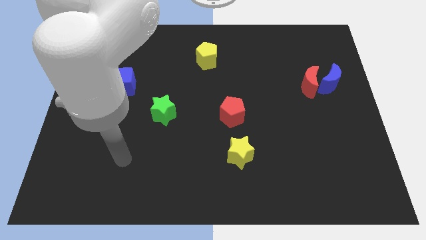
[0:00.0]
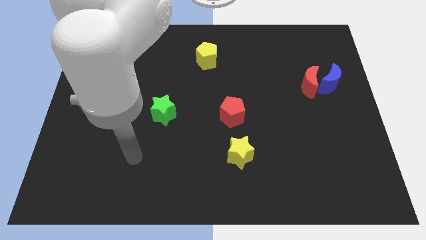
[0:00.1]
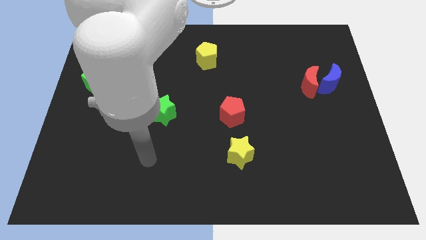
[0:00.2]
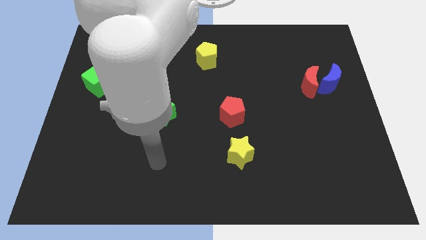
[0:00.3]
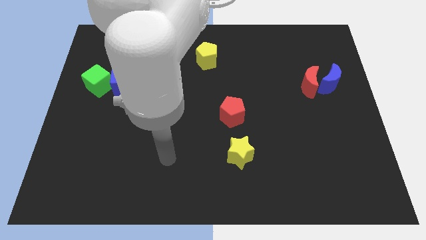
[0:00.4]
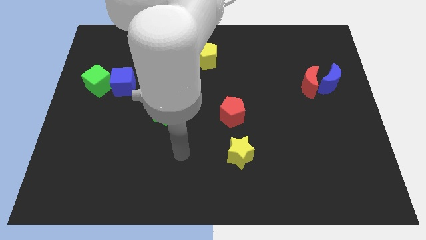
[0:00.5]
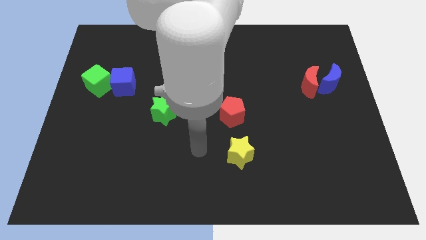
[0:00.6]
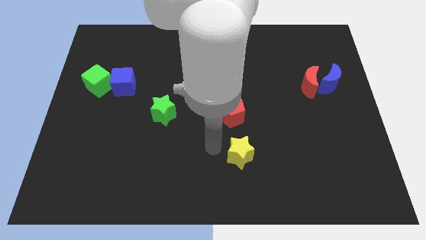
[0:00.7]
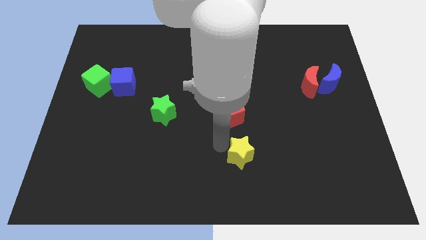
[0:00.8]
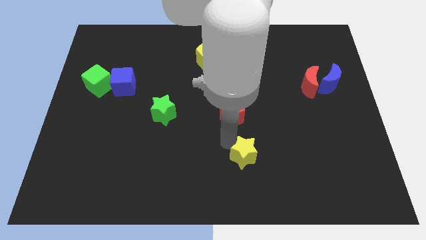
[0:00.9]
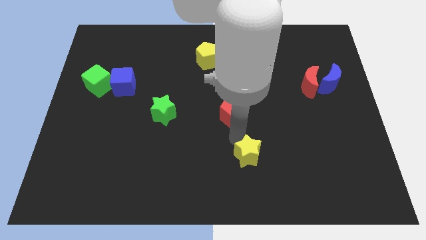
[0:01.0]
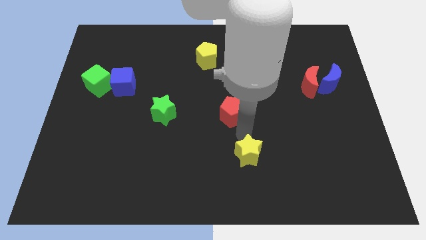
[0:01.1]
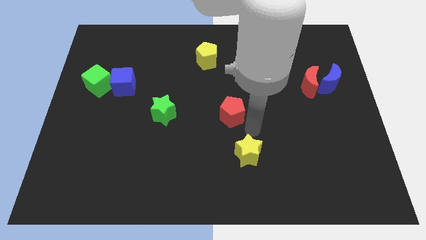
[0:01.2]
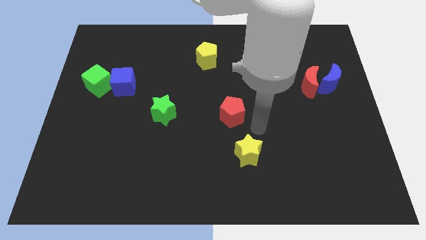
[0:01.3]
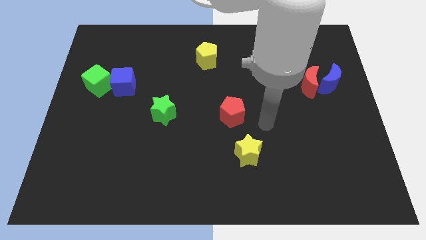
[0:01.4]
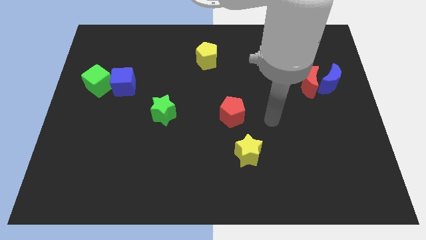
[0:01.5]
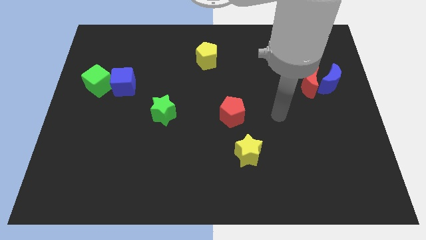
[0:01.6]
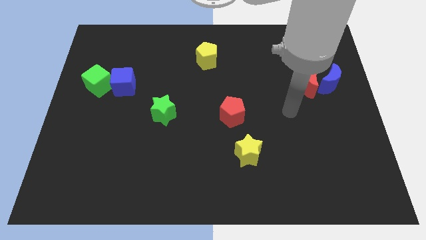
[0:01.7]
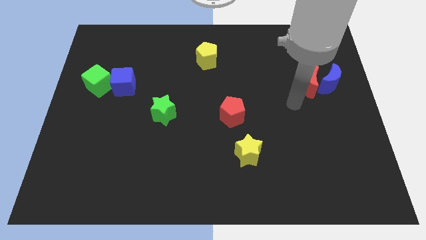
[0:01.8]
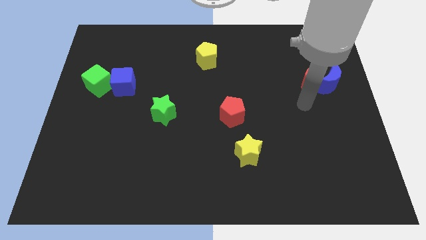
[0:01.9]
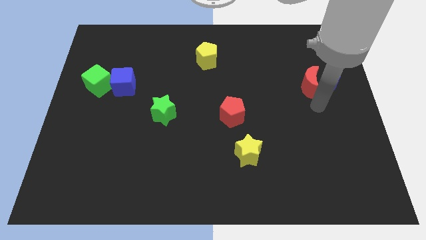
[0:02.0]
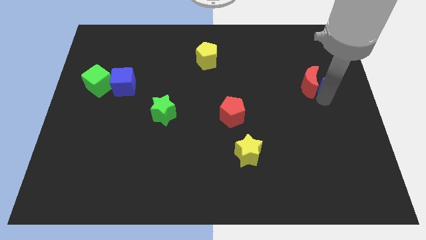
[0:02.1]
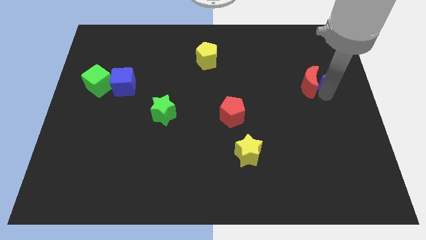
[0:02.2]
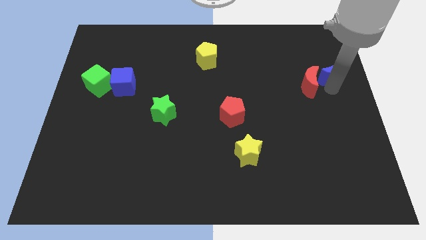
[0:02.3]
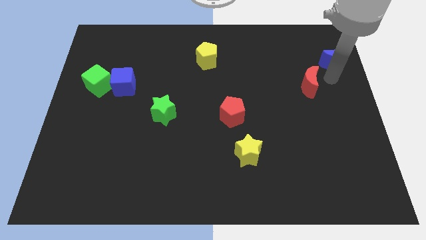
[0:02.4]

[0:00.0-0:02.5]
pull the red moon apart from the blue moon

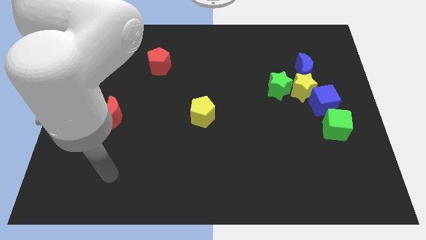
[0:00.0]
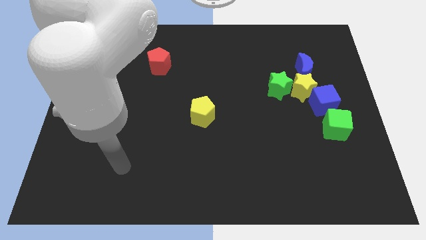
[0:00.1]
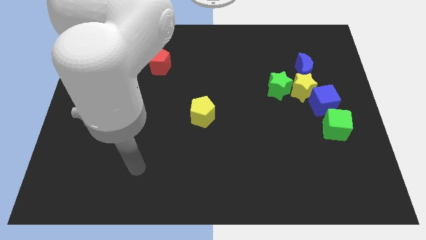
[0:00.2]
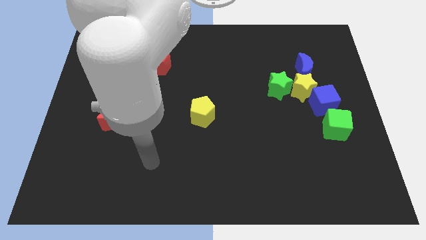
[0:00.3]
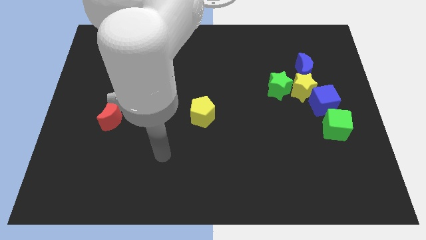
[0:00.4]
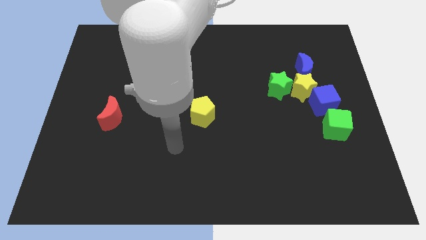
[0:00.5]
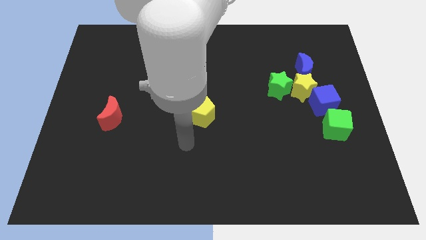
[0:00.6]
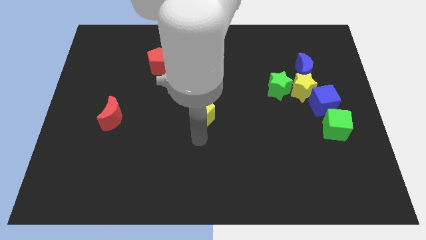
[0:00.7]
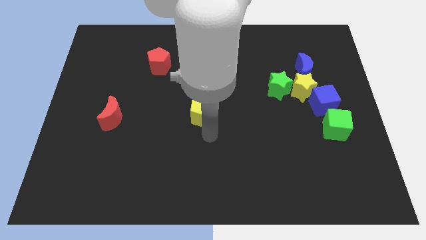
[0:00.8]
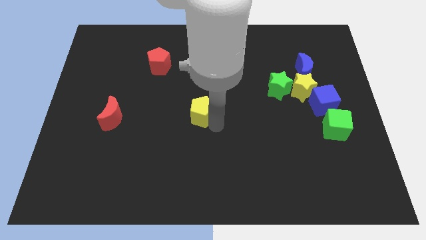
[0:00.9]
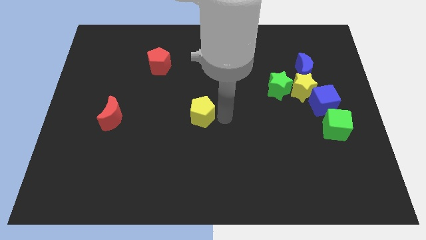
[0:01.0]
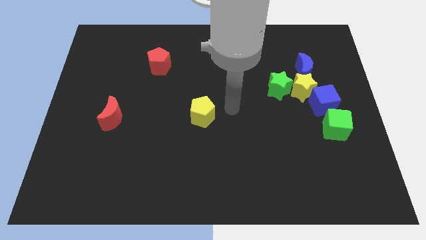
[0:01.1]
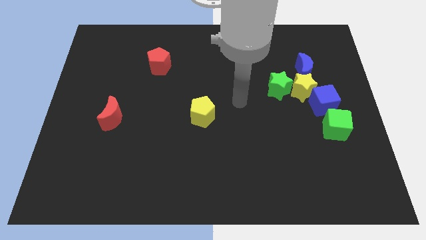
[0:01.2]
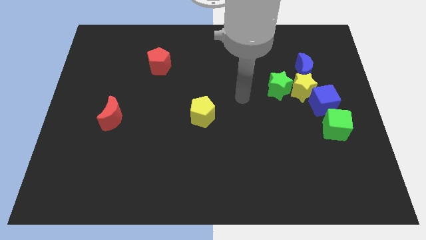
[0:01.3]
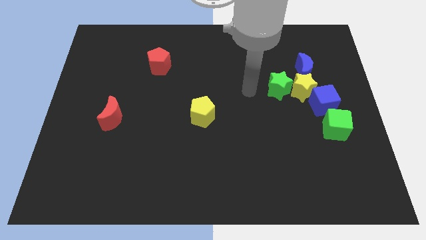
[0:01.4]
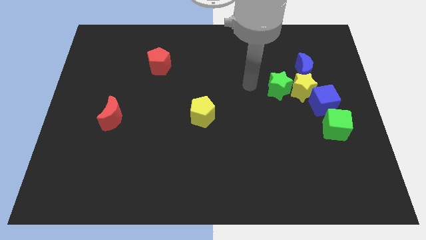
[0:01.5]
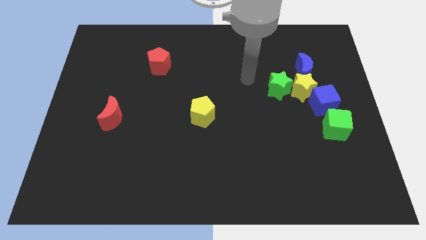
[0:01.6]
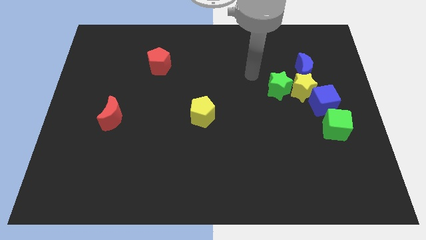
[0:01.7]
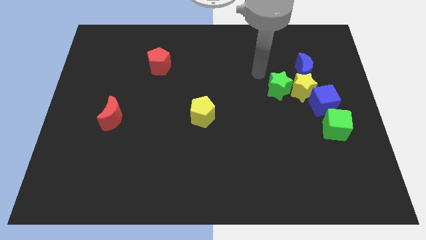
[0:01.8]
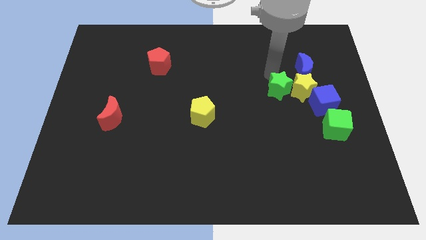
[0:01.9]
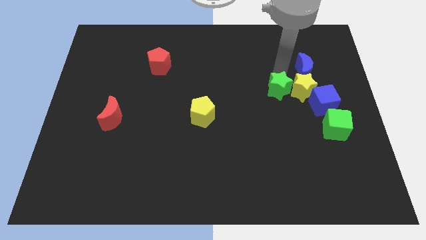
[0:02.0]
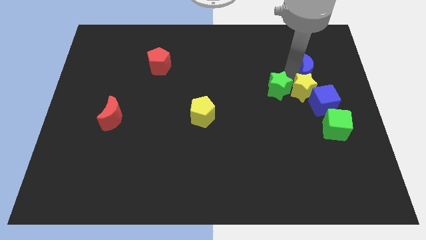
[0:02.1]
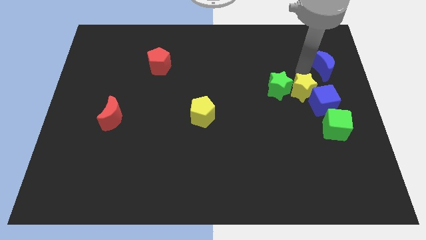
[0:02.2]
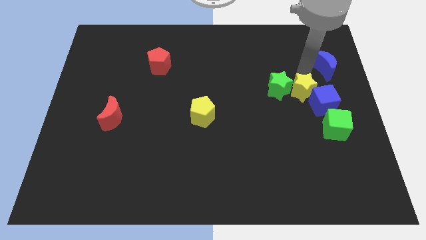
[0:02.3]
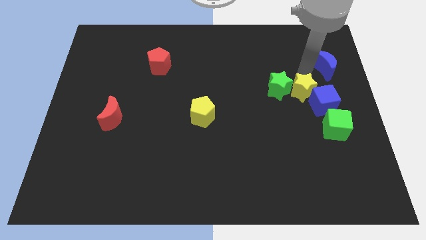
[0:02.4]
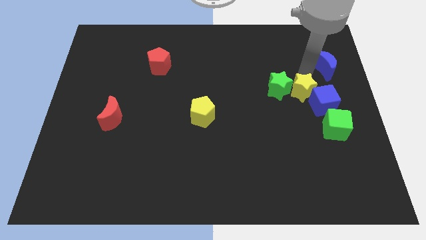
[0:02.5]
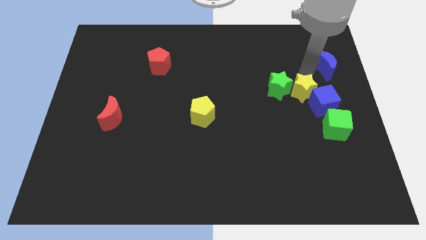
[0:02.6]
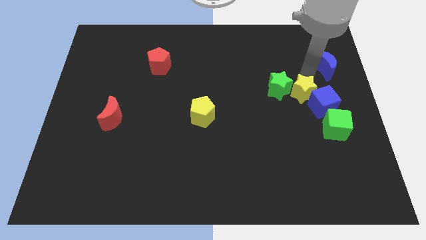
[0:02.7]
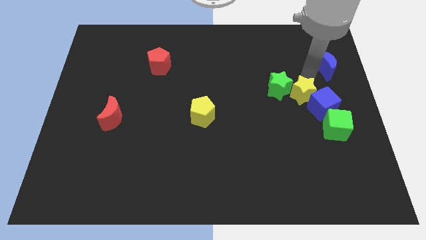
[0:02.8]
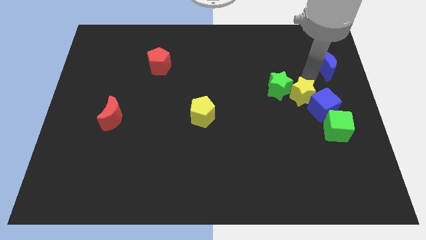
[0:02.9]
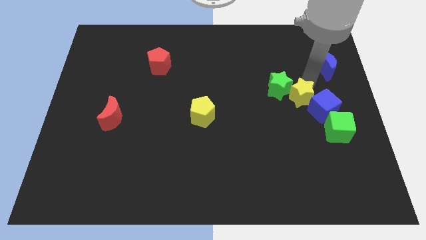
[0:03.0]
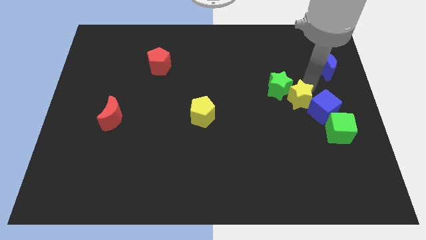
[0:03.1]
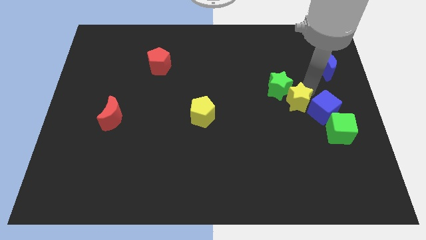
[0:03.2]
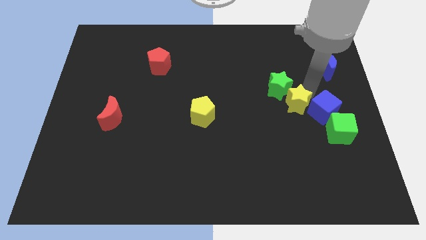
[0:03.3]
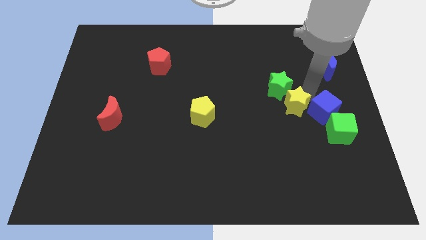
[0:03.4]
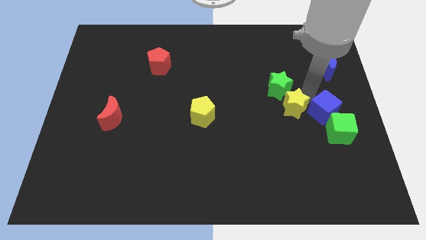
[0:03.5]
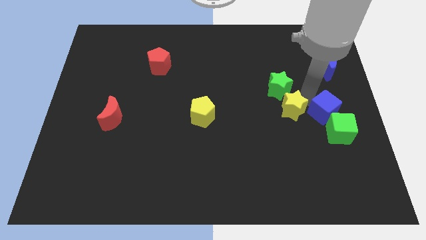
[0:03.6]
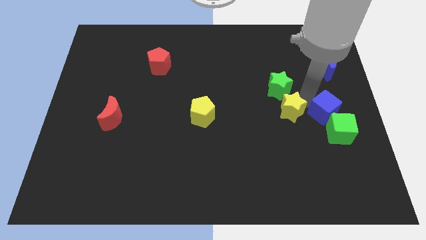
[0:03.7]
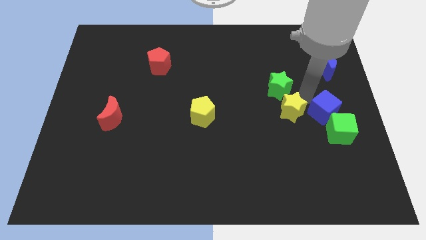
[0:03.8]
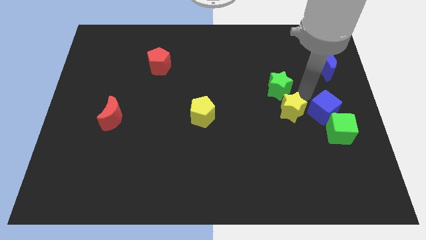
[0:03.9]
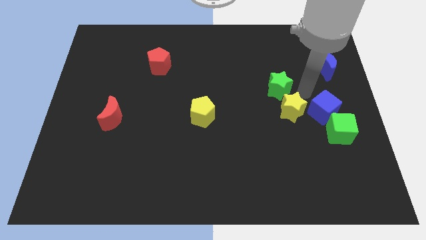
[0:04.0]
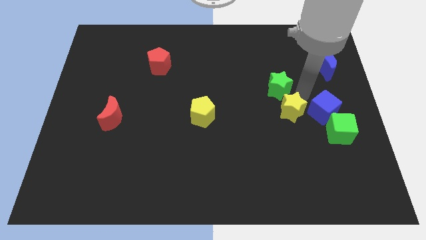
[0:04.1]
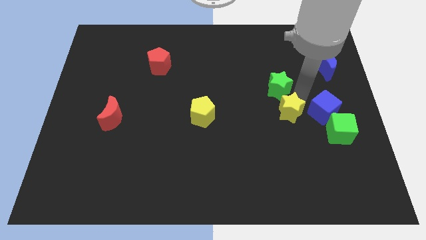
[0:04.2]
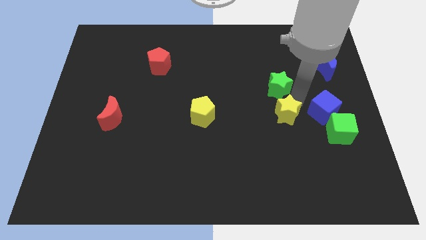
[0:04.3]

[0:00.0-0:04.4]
pull the yellow star apart from the green star, blue cube, and blue moon

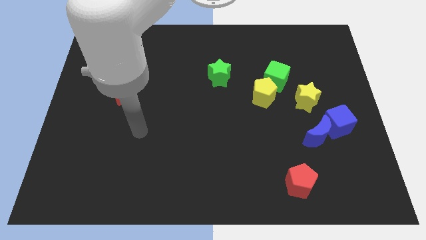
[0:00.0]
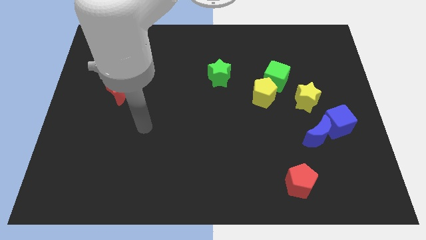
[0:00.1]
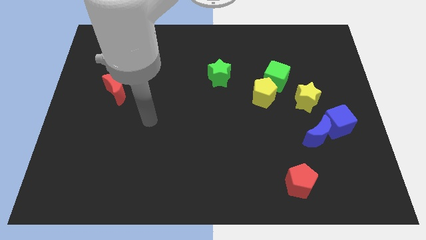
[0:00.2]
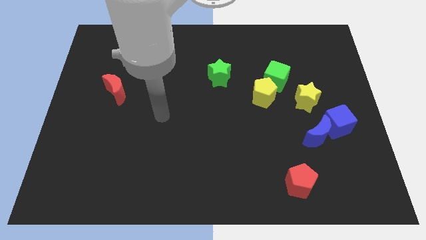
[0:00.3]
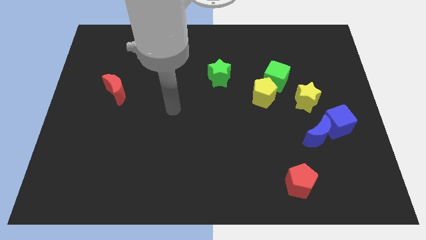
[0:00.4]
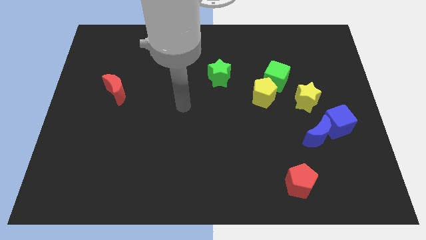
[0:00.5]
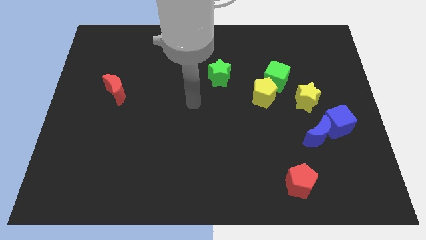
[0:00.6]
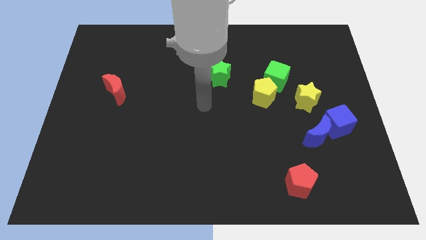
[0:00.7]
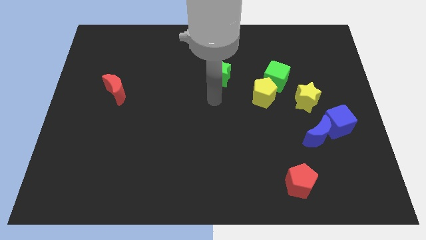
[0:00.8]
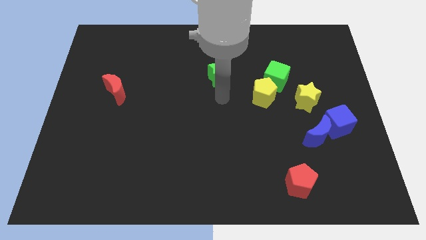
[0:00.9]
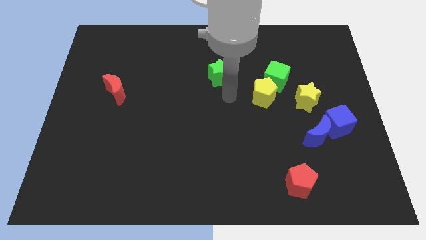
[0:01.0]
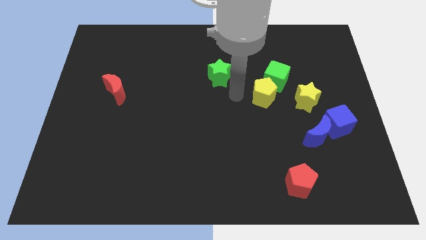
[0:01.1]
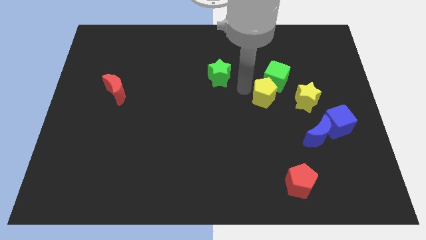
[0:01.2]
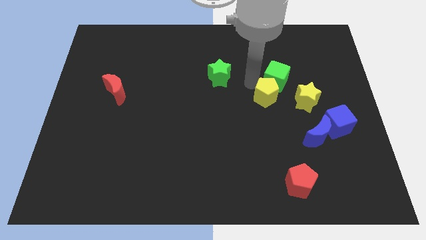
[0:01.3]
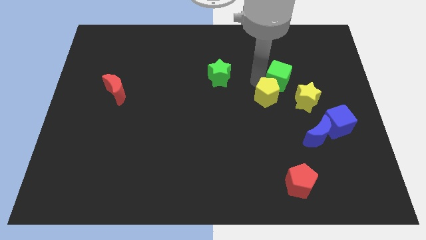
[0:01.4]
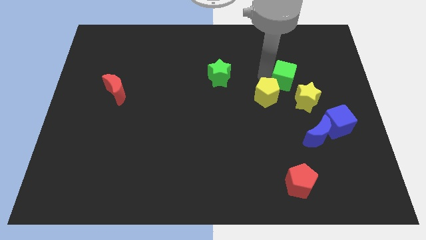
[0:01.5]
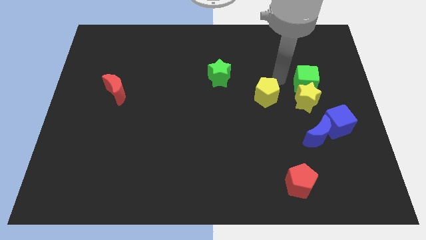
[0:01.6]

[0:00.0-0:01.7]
pull the yellow pentagon apart from the green cube

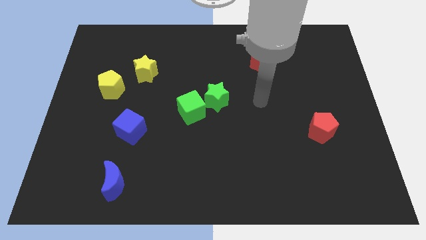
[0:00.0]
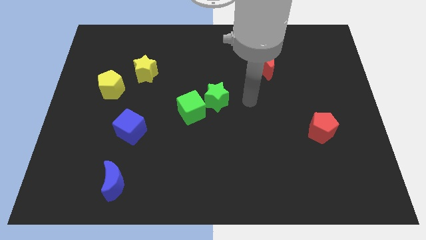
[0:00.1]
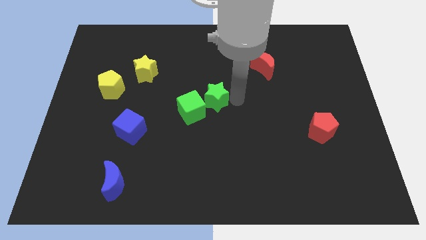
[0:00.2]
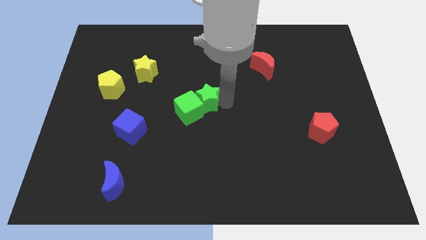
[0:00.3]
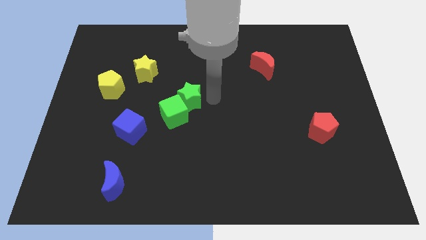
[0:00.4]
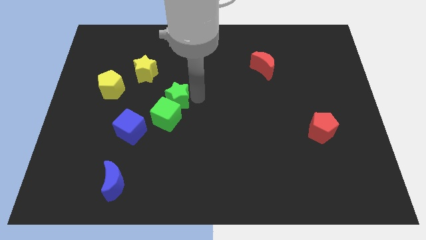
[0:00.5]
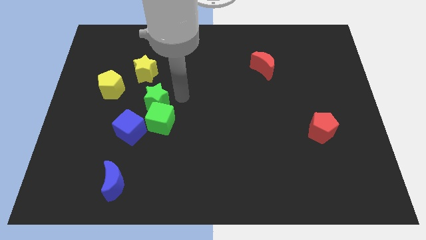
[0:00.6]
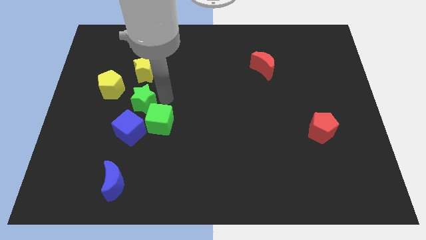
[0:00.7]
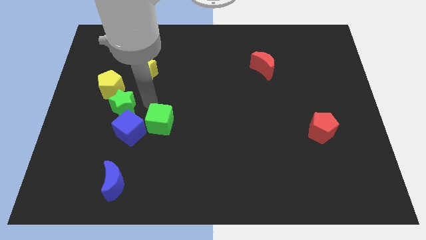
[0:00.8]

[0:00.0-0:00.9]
move the green cube away from the green star

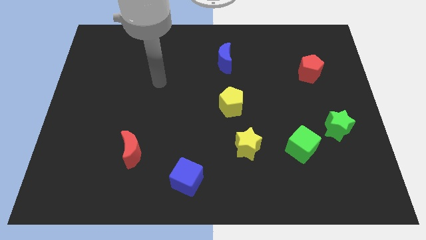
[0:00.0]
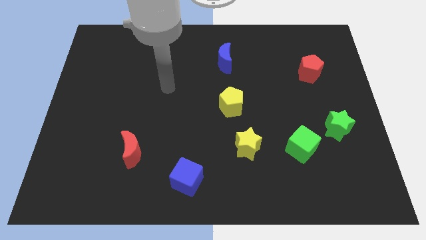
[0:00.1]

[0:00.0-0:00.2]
pull the green cube apart from the green star
